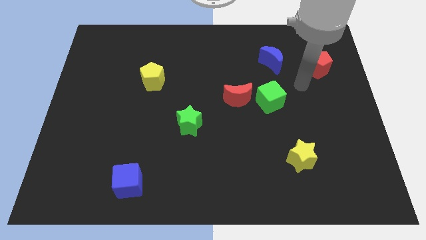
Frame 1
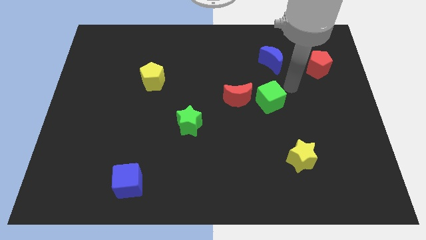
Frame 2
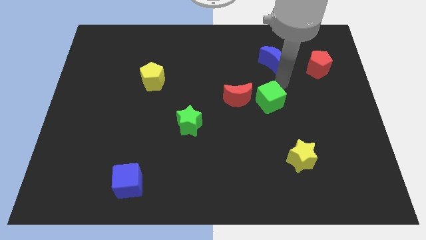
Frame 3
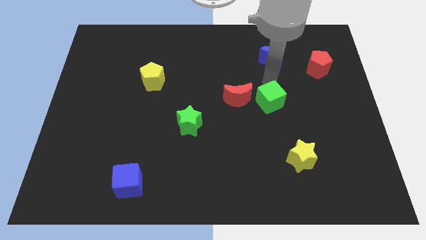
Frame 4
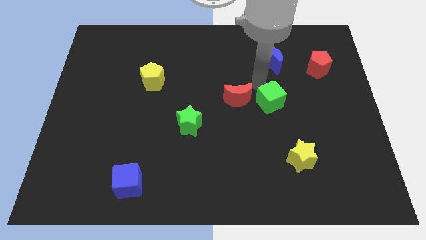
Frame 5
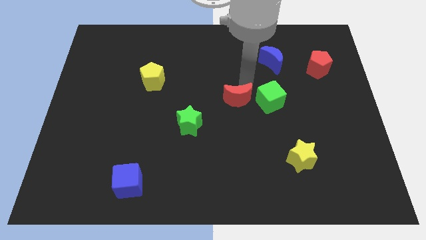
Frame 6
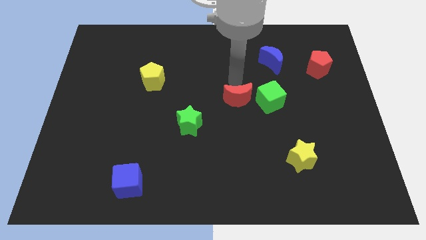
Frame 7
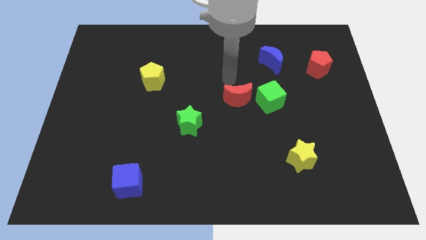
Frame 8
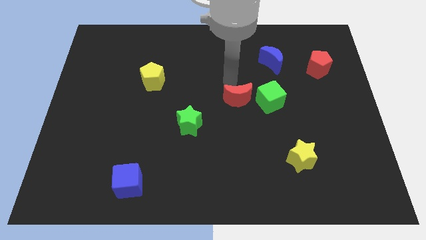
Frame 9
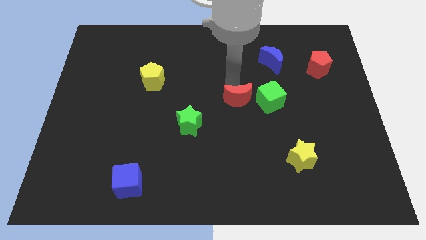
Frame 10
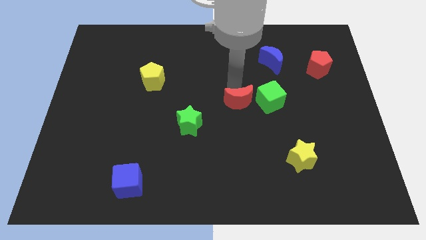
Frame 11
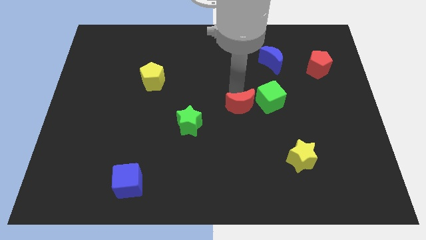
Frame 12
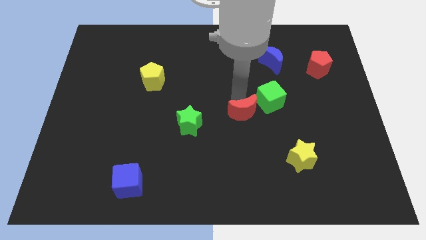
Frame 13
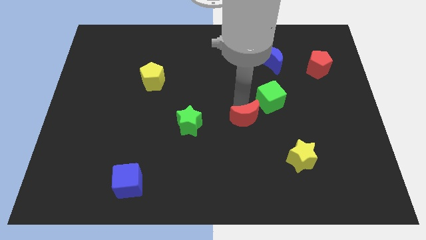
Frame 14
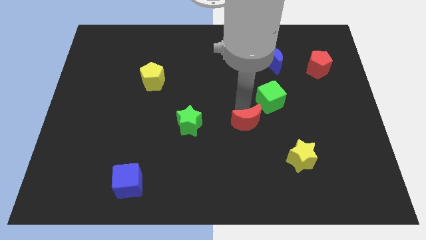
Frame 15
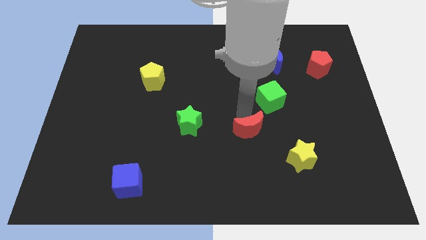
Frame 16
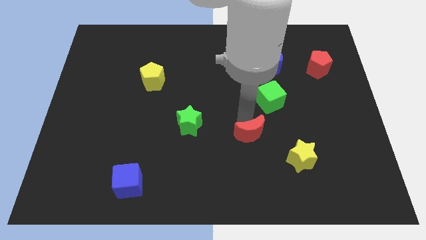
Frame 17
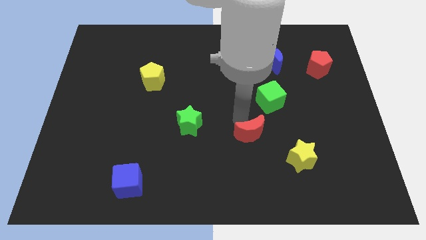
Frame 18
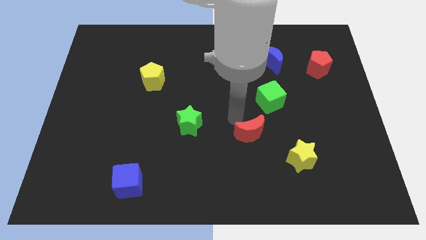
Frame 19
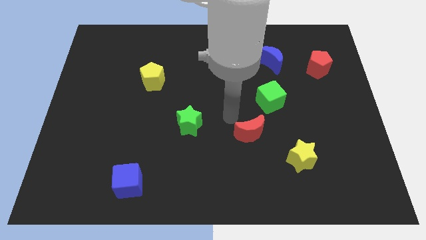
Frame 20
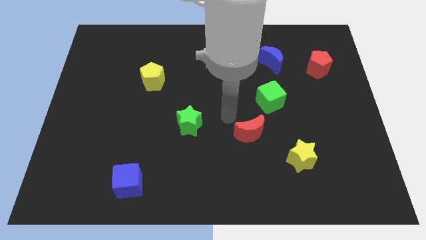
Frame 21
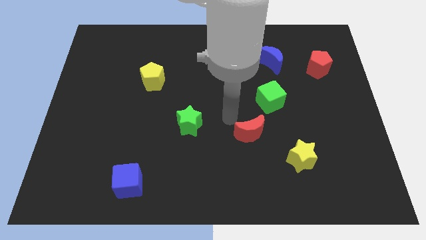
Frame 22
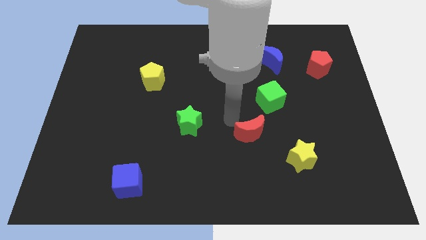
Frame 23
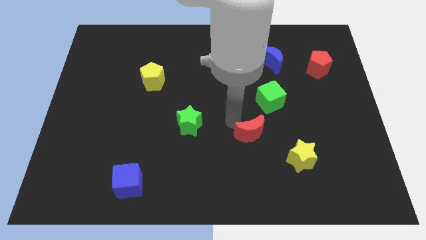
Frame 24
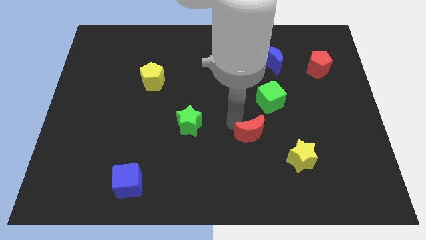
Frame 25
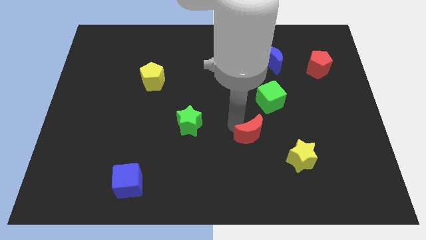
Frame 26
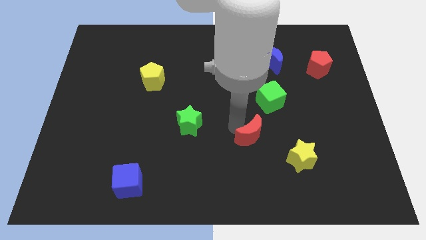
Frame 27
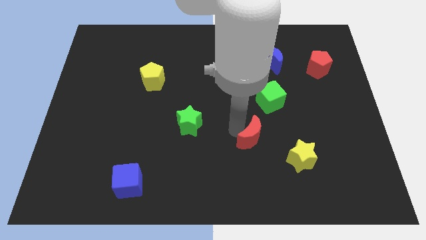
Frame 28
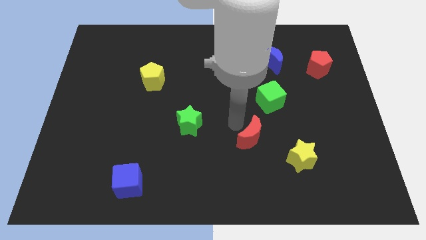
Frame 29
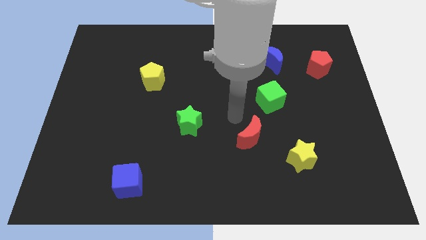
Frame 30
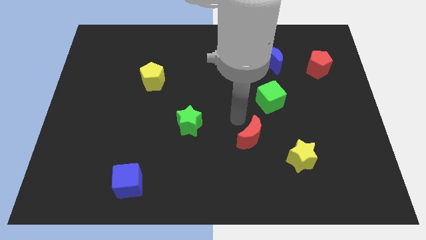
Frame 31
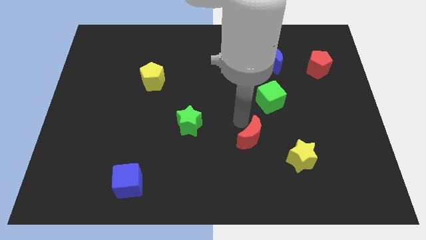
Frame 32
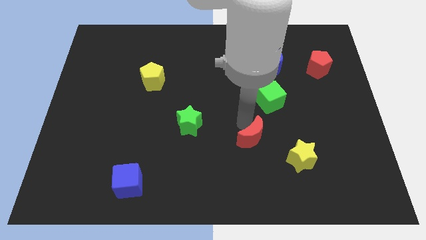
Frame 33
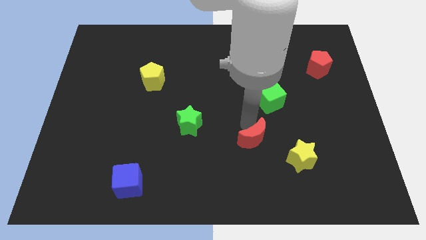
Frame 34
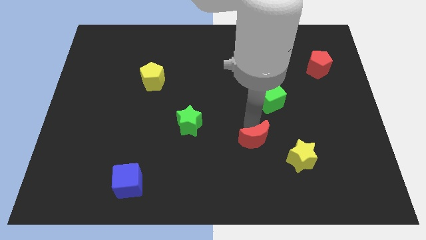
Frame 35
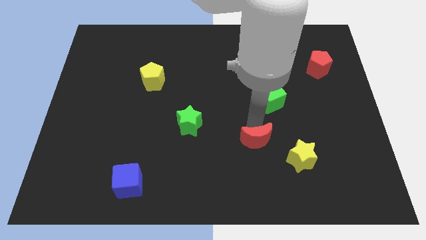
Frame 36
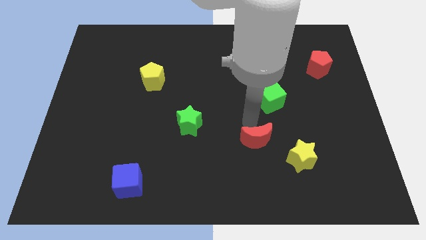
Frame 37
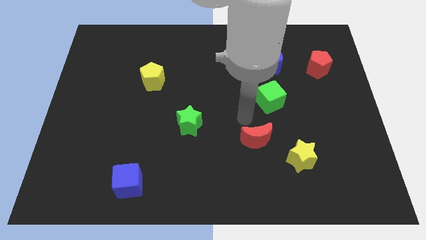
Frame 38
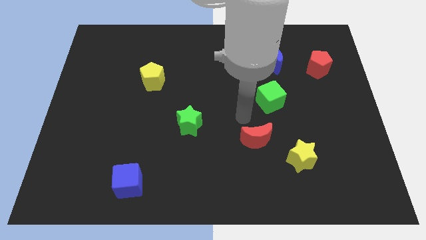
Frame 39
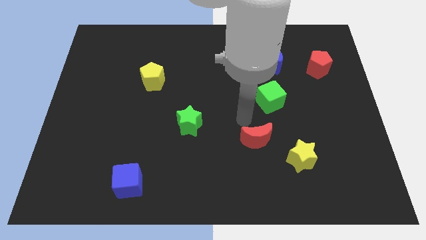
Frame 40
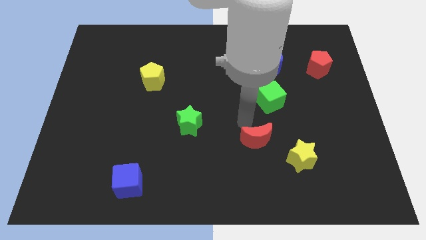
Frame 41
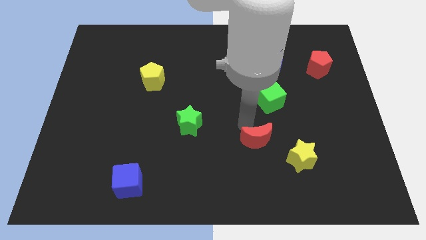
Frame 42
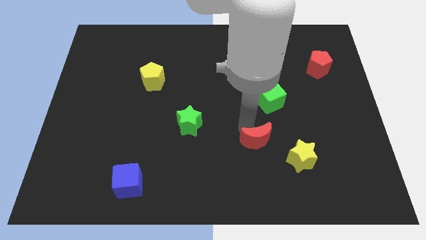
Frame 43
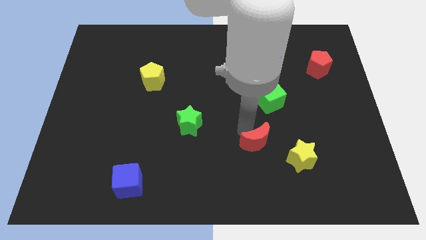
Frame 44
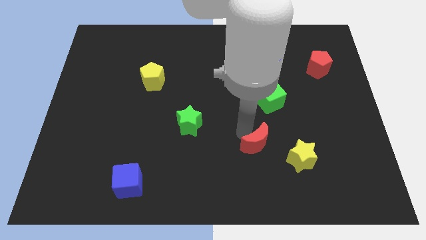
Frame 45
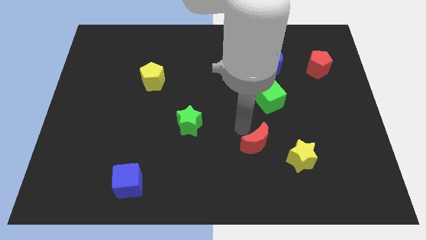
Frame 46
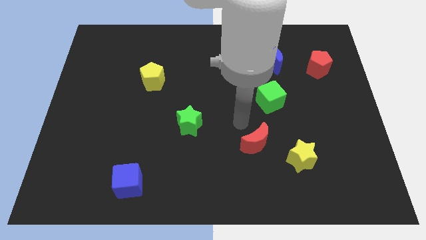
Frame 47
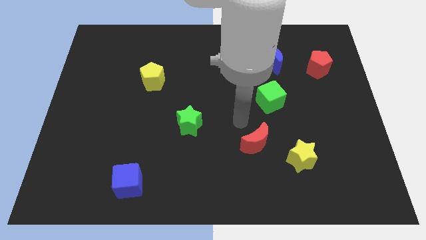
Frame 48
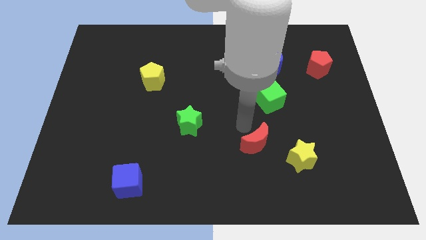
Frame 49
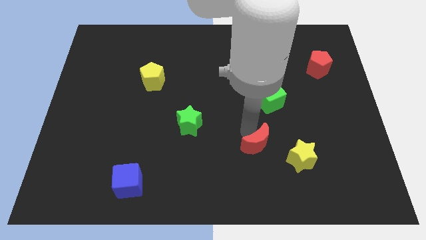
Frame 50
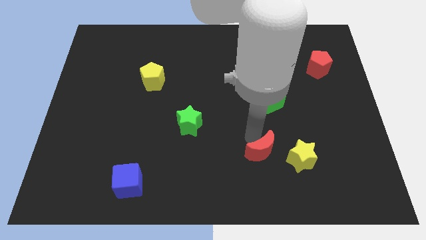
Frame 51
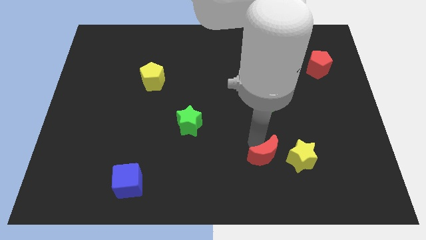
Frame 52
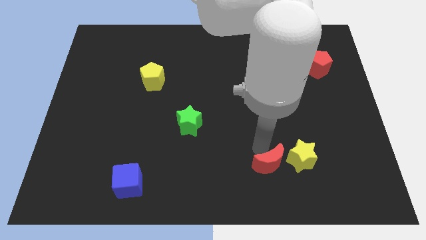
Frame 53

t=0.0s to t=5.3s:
put the red moon diagonally down and to the left of the yellow star

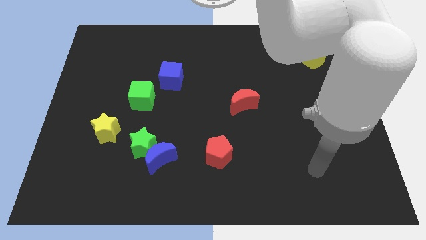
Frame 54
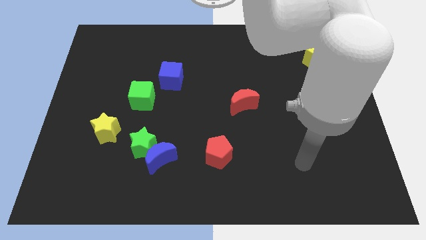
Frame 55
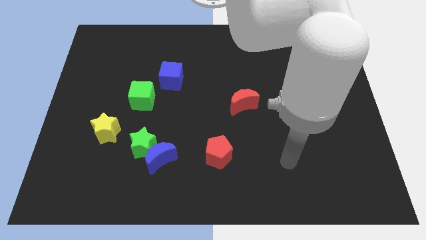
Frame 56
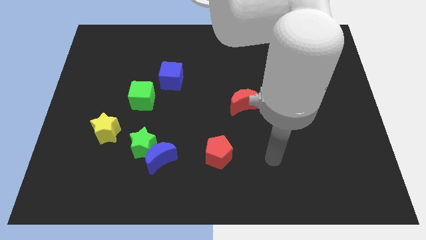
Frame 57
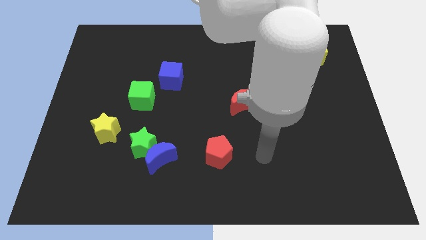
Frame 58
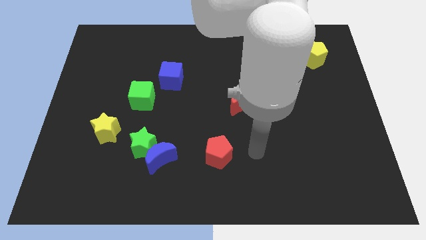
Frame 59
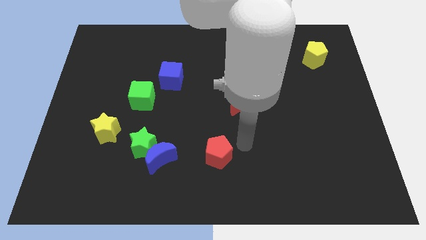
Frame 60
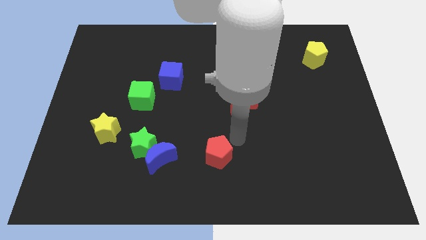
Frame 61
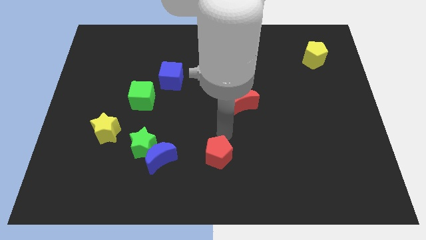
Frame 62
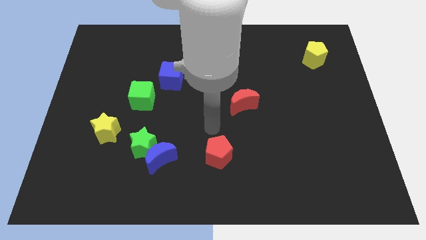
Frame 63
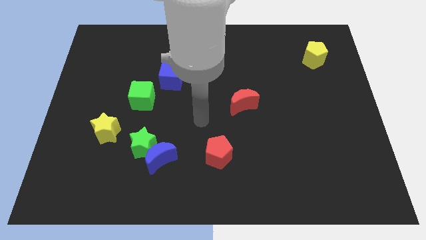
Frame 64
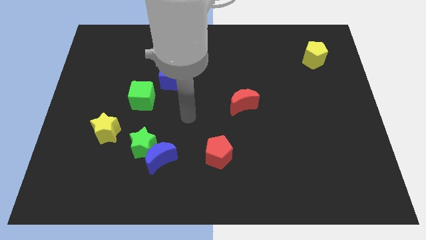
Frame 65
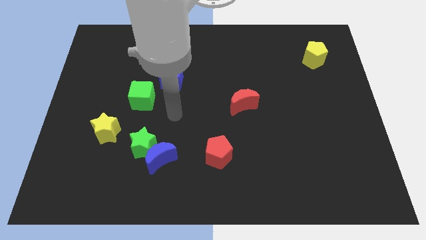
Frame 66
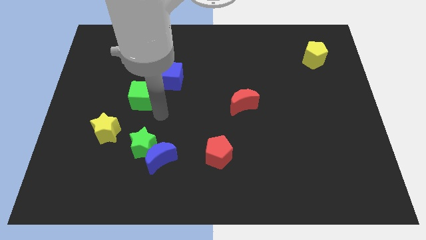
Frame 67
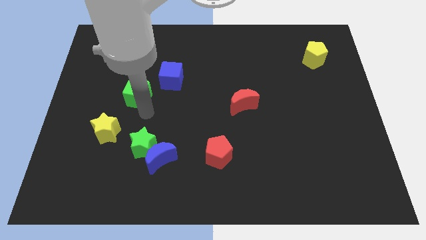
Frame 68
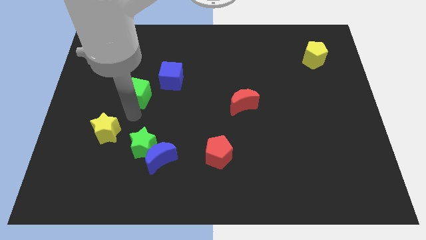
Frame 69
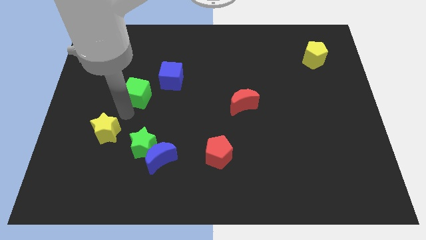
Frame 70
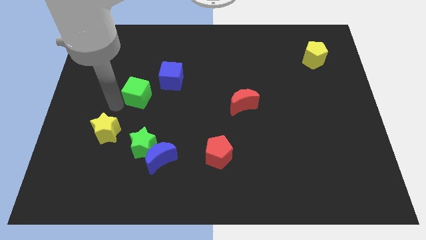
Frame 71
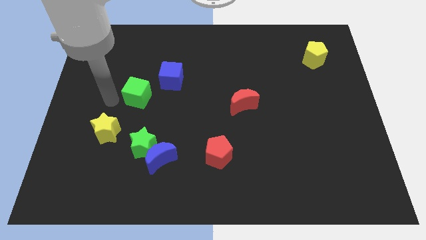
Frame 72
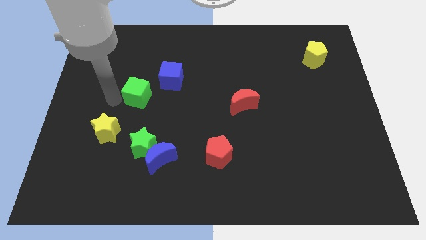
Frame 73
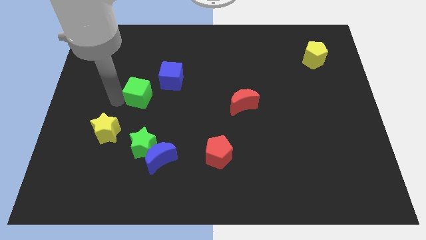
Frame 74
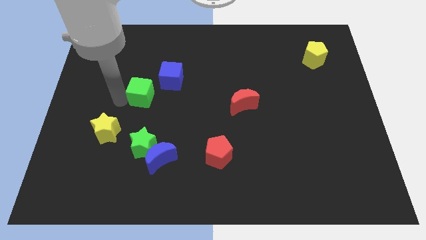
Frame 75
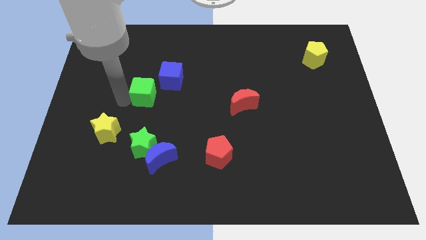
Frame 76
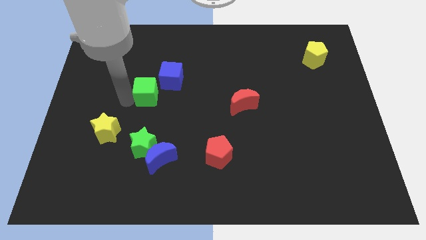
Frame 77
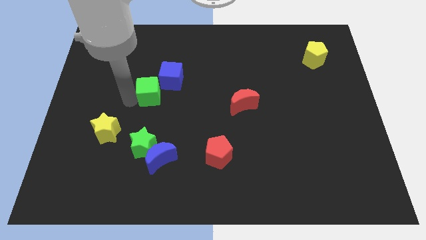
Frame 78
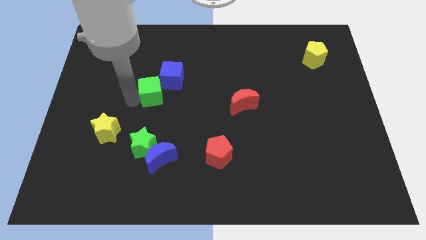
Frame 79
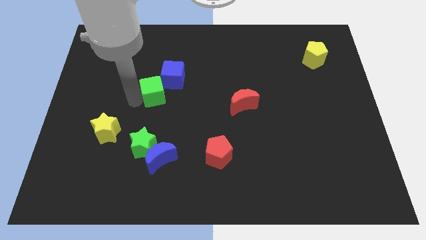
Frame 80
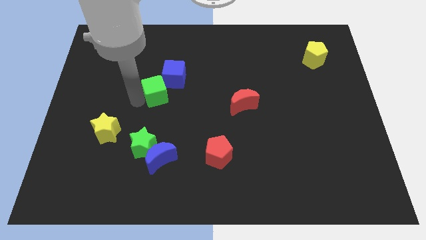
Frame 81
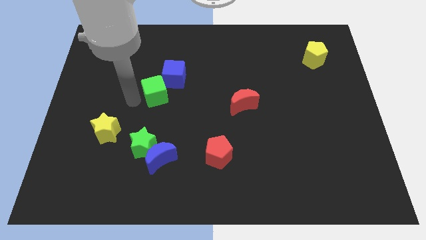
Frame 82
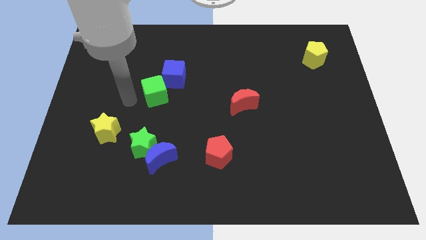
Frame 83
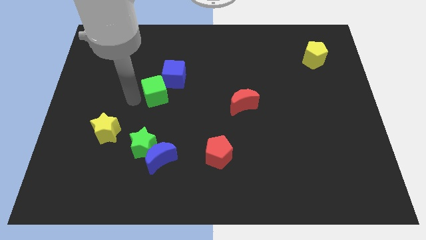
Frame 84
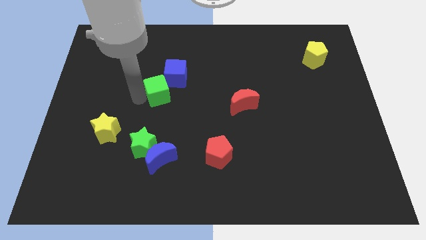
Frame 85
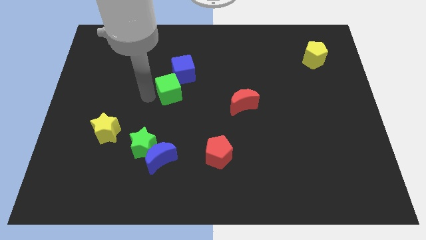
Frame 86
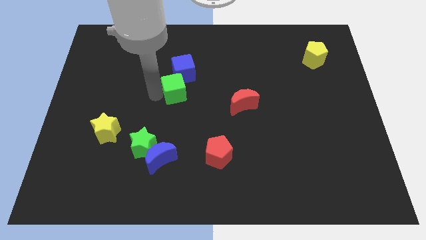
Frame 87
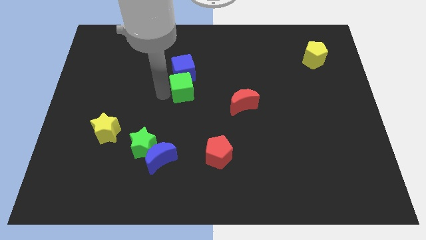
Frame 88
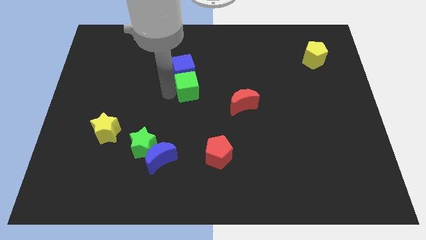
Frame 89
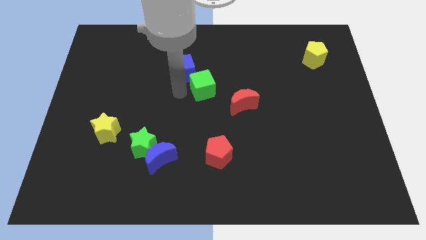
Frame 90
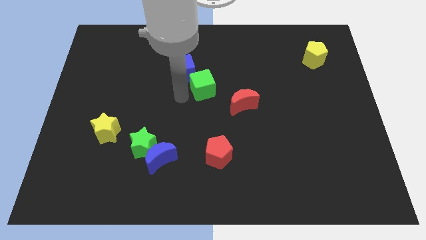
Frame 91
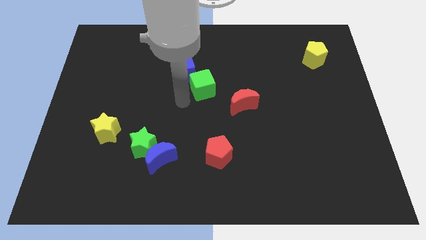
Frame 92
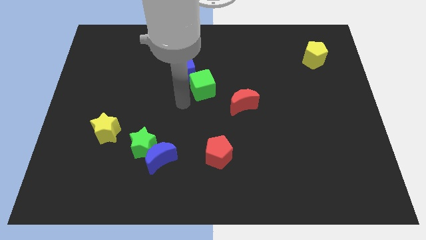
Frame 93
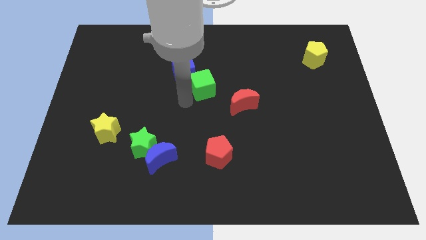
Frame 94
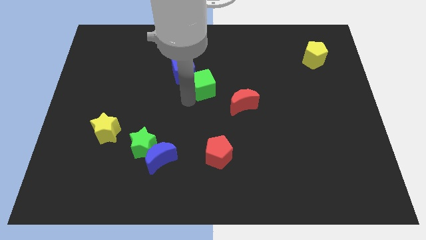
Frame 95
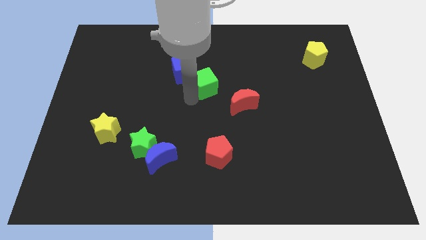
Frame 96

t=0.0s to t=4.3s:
push the green cube right of the blue cube
